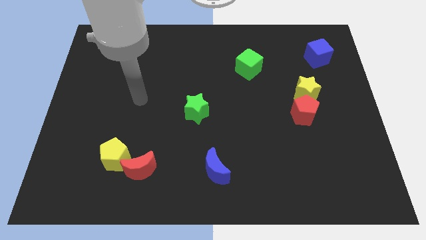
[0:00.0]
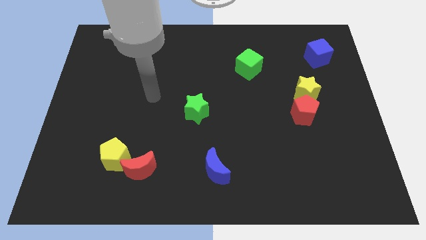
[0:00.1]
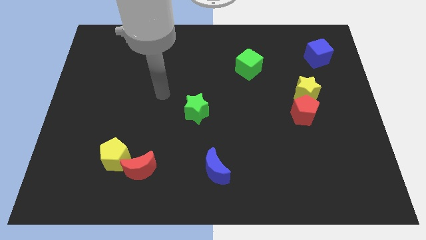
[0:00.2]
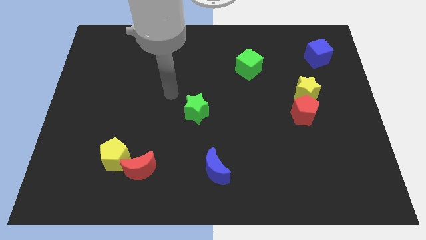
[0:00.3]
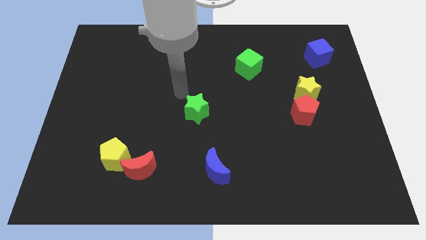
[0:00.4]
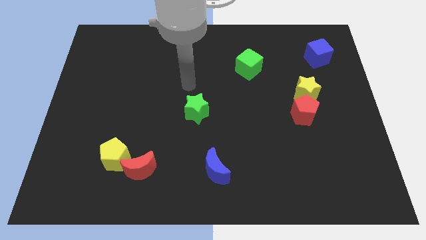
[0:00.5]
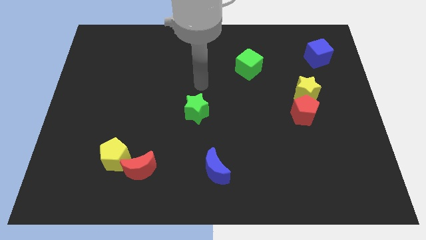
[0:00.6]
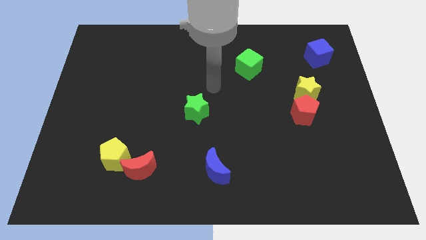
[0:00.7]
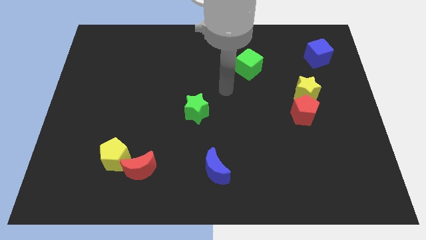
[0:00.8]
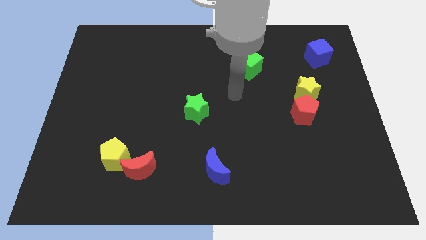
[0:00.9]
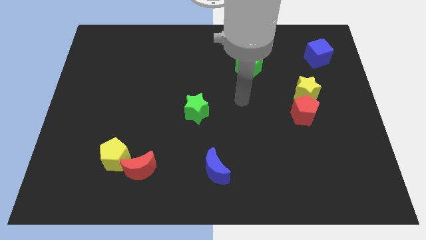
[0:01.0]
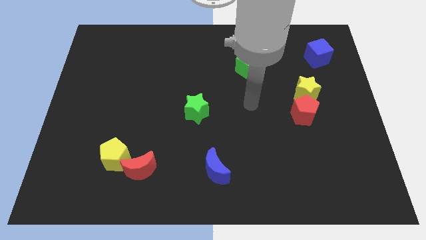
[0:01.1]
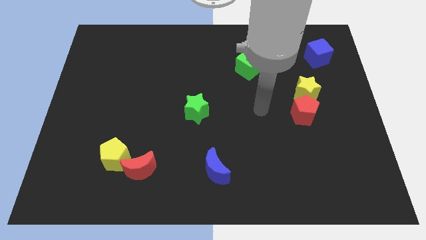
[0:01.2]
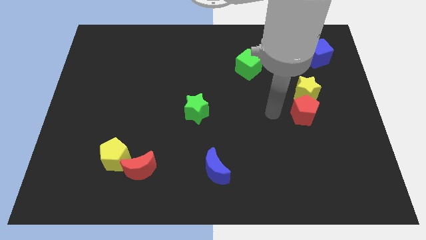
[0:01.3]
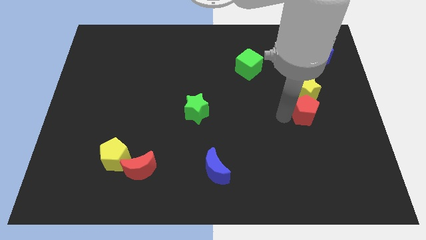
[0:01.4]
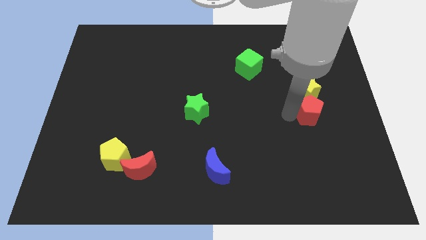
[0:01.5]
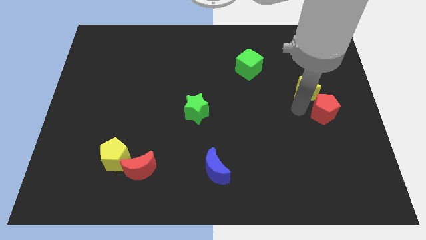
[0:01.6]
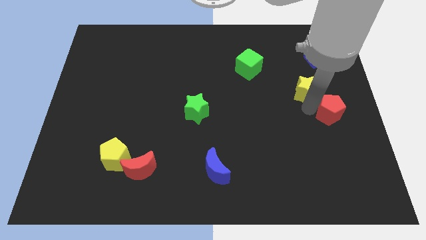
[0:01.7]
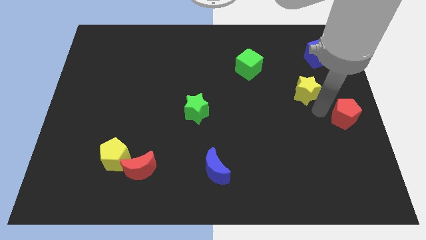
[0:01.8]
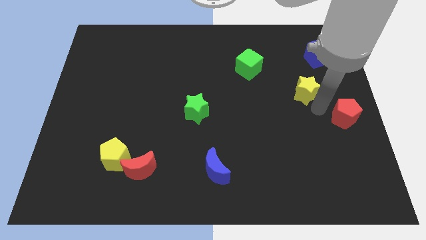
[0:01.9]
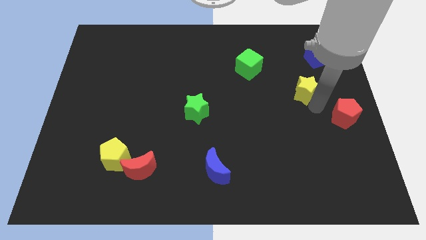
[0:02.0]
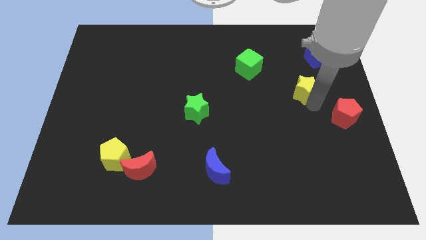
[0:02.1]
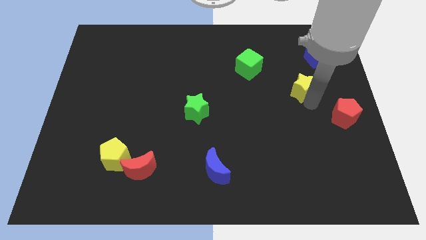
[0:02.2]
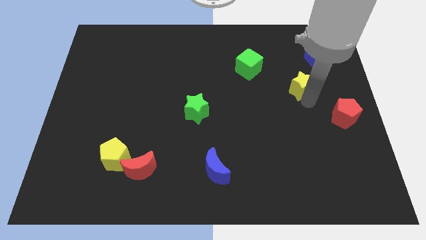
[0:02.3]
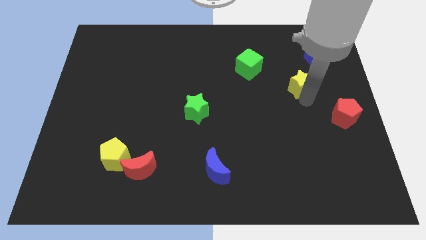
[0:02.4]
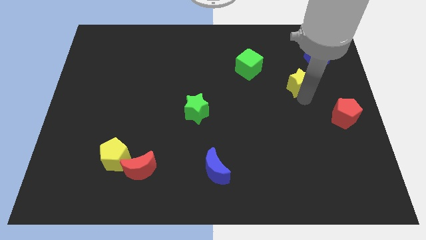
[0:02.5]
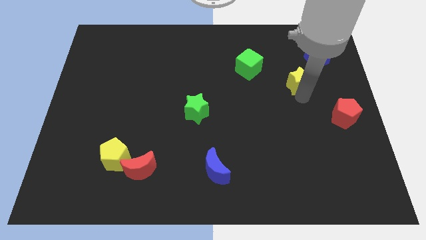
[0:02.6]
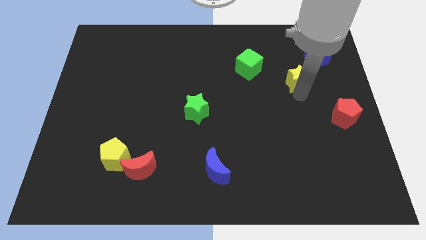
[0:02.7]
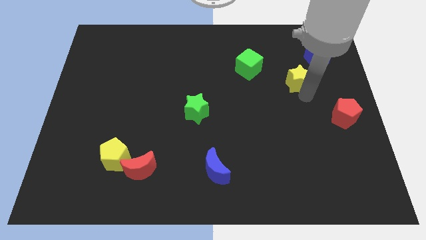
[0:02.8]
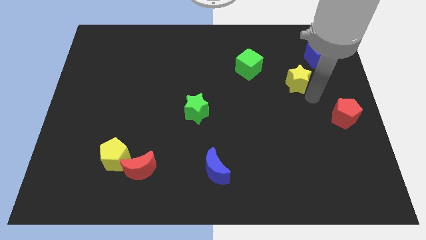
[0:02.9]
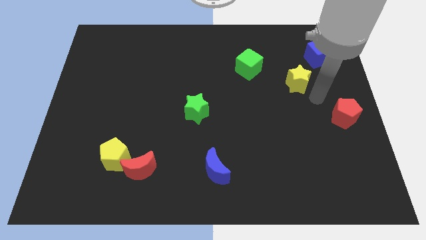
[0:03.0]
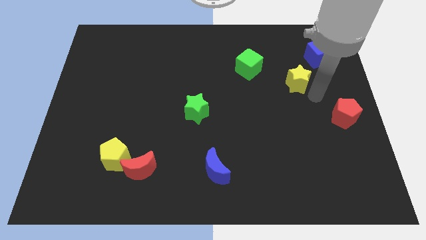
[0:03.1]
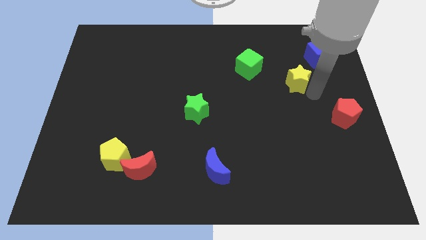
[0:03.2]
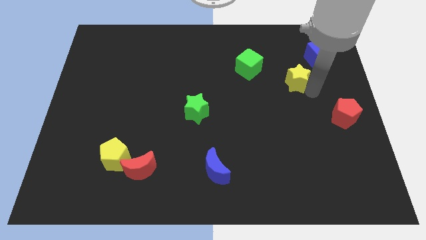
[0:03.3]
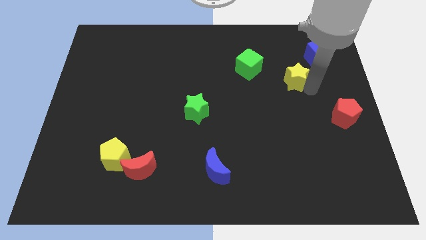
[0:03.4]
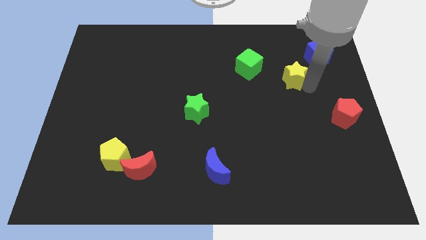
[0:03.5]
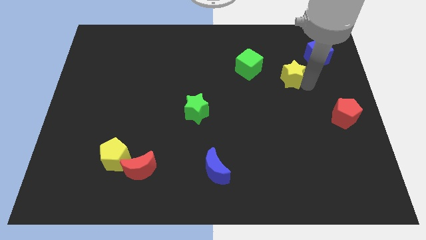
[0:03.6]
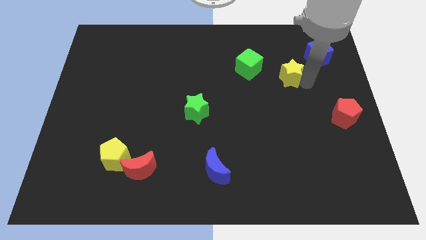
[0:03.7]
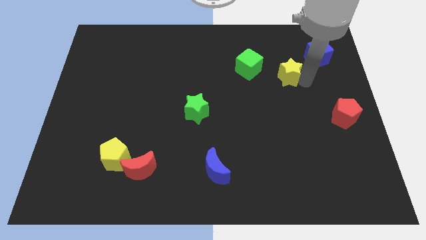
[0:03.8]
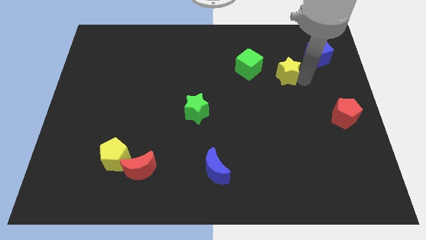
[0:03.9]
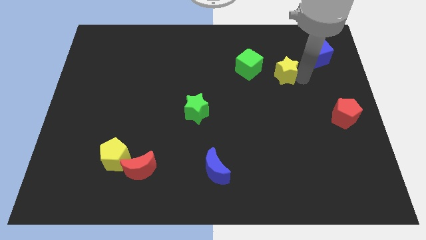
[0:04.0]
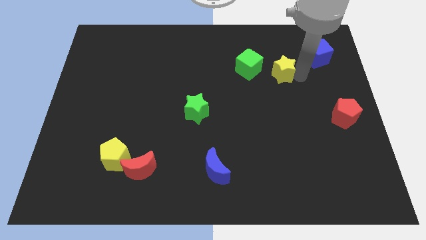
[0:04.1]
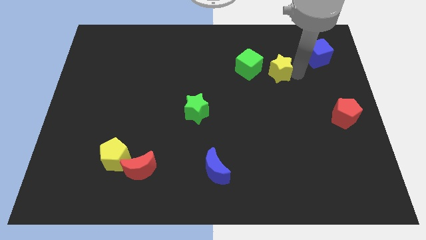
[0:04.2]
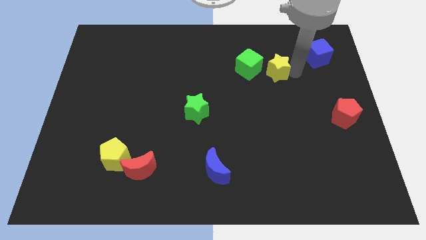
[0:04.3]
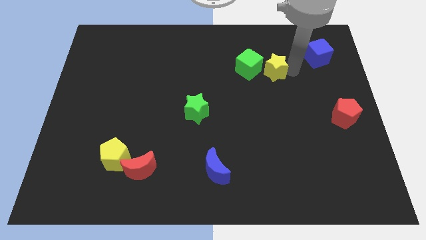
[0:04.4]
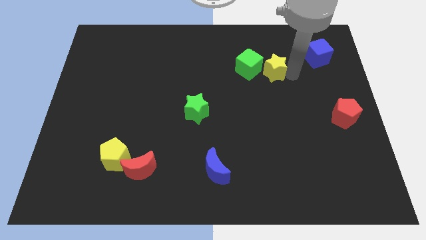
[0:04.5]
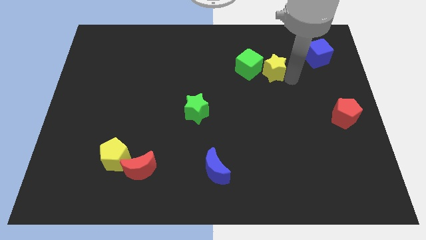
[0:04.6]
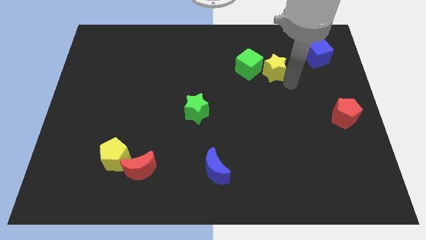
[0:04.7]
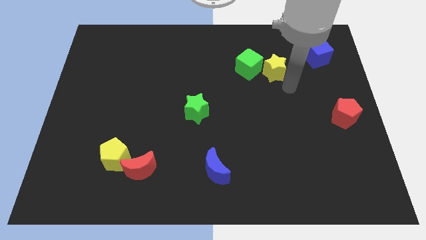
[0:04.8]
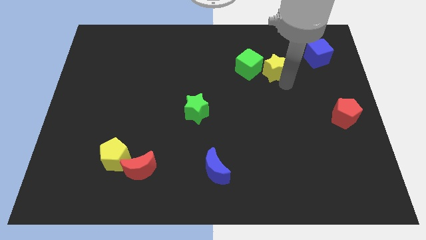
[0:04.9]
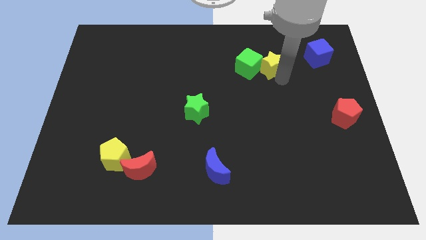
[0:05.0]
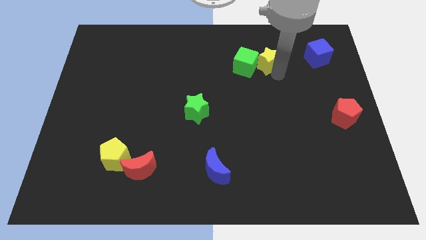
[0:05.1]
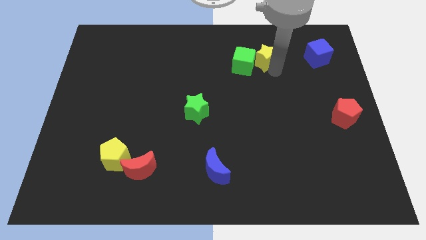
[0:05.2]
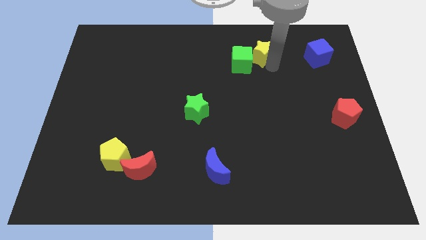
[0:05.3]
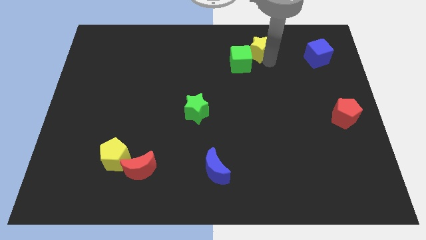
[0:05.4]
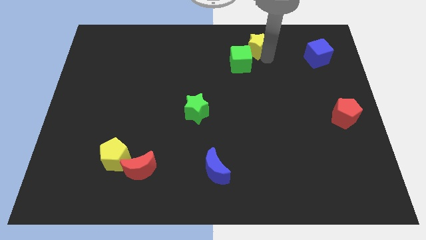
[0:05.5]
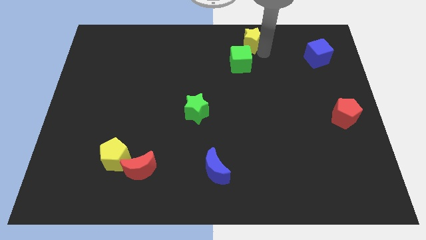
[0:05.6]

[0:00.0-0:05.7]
move the yellow star to the towards your base
